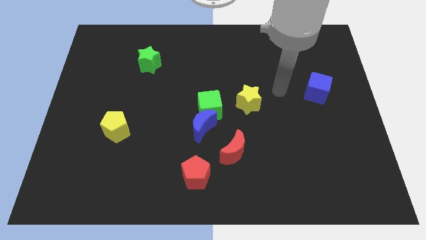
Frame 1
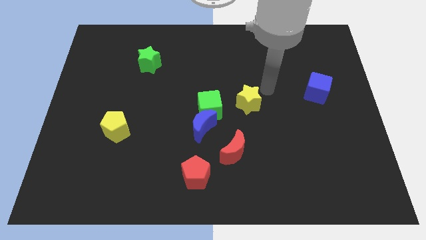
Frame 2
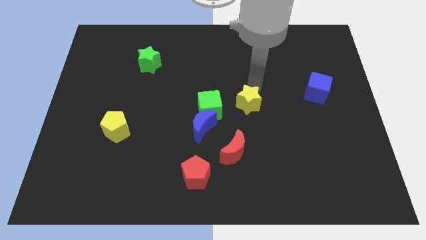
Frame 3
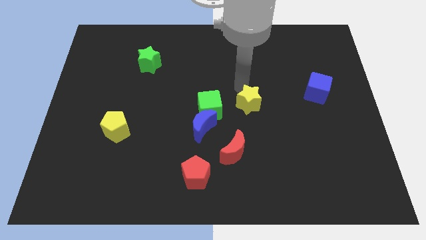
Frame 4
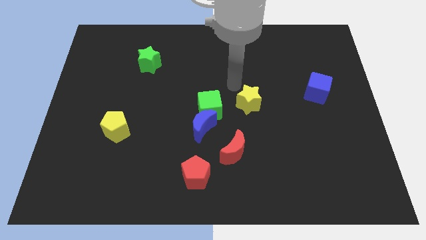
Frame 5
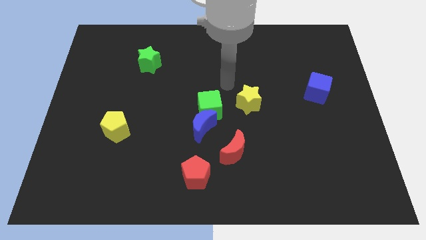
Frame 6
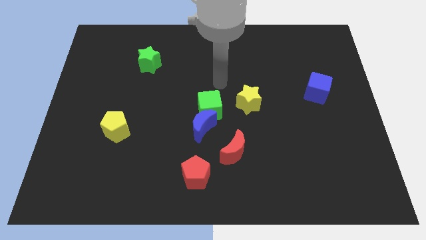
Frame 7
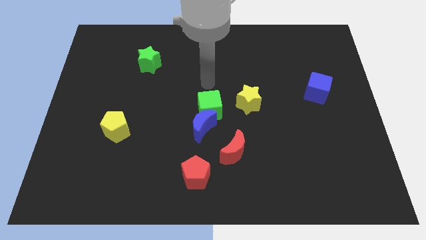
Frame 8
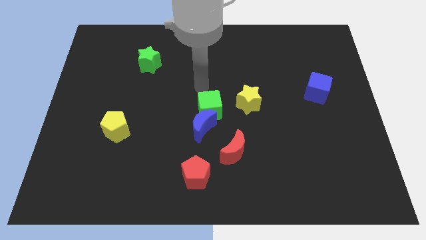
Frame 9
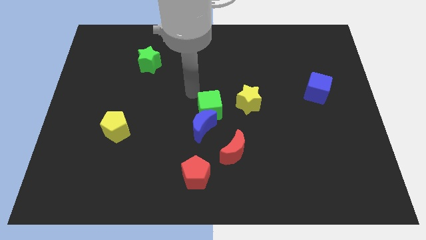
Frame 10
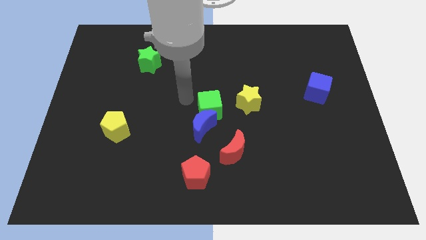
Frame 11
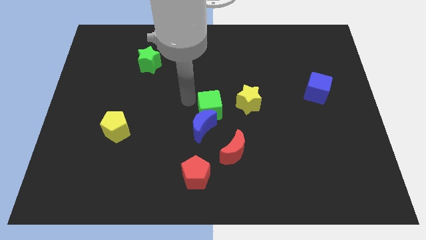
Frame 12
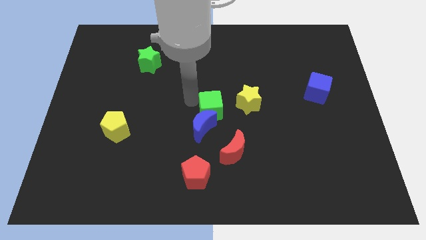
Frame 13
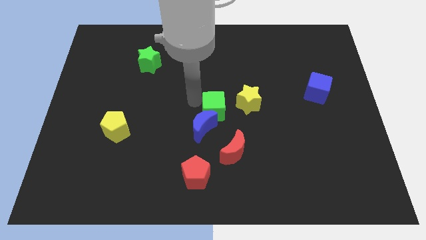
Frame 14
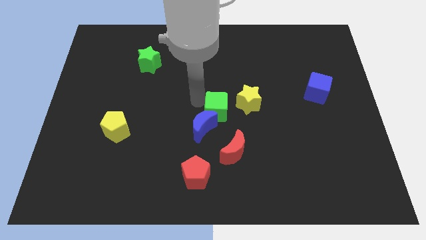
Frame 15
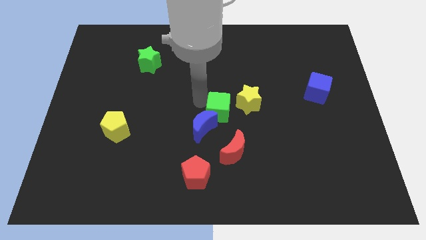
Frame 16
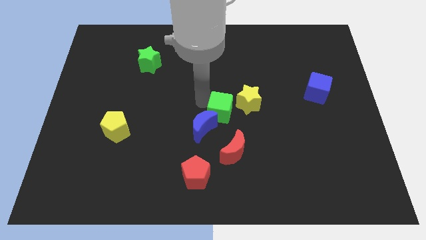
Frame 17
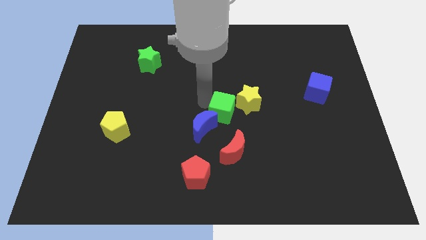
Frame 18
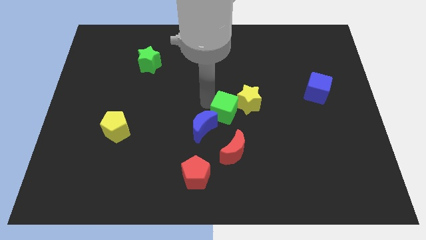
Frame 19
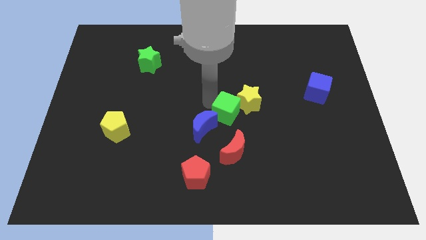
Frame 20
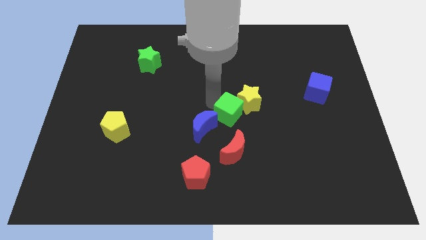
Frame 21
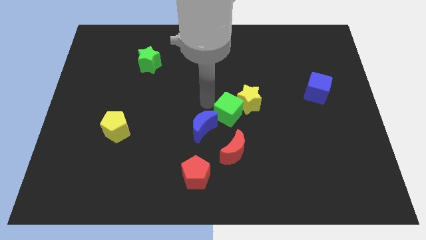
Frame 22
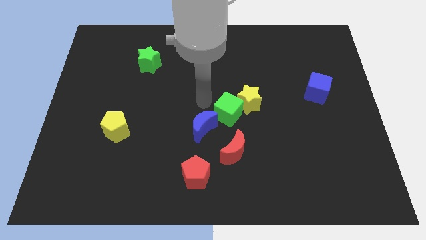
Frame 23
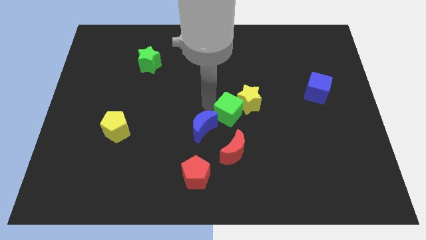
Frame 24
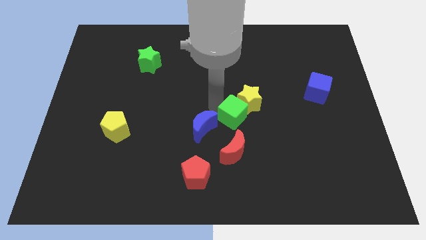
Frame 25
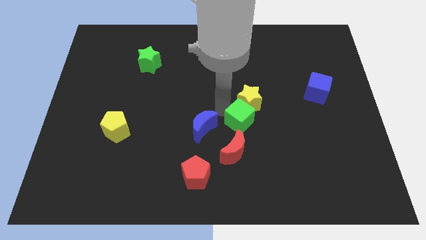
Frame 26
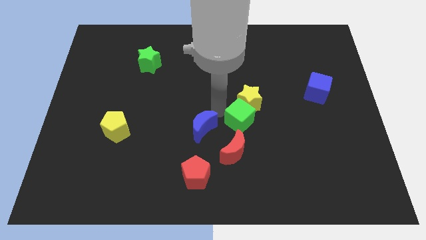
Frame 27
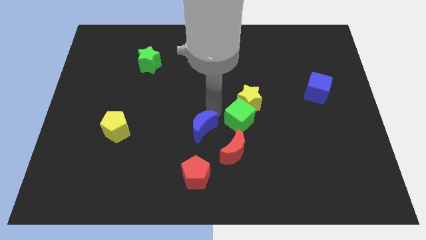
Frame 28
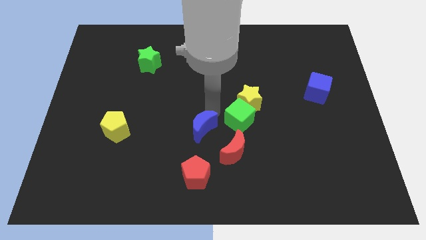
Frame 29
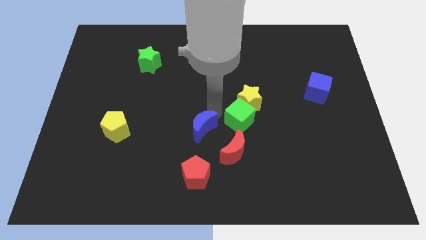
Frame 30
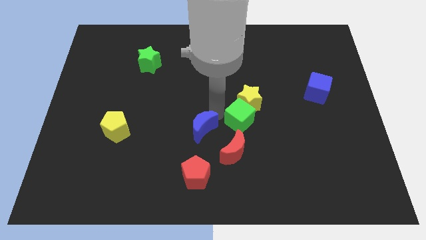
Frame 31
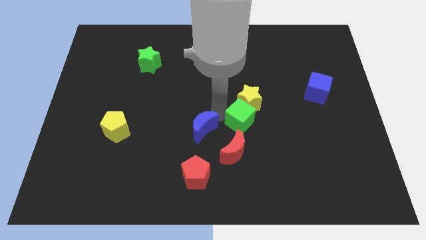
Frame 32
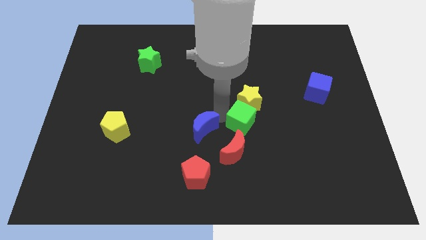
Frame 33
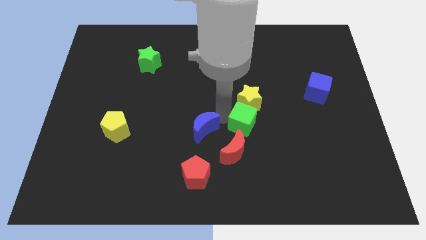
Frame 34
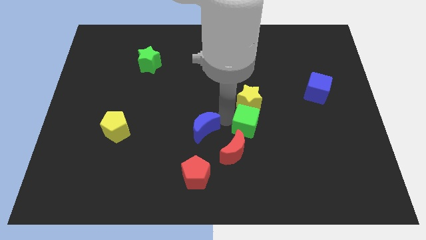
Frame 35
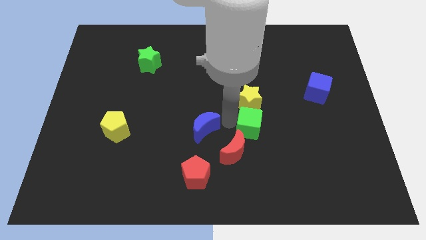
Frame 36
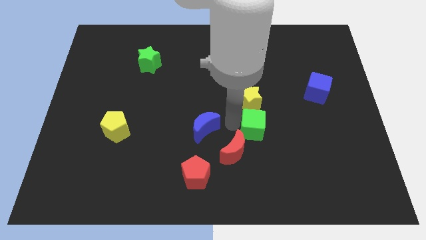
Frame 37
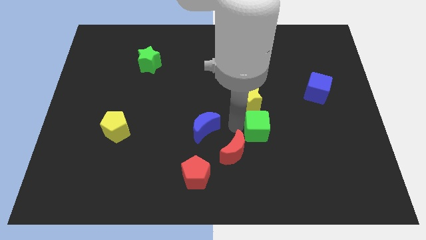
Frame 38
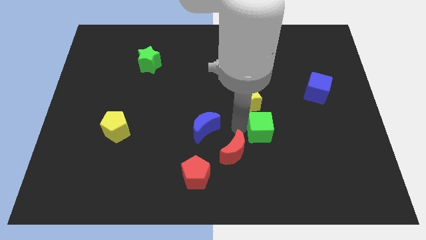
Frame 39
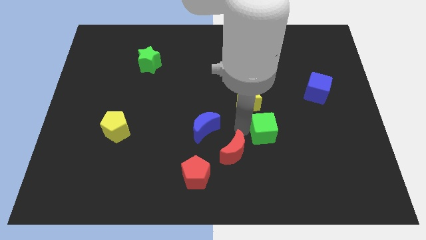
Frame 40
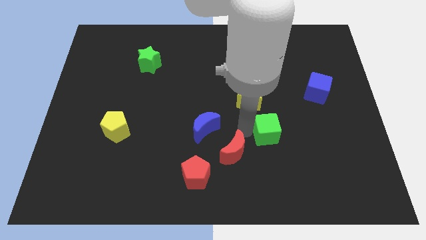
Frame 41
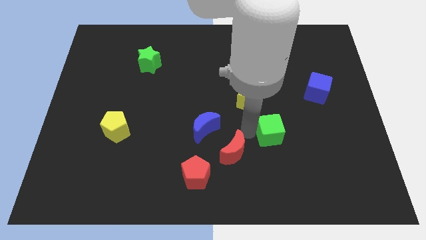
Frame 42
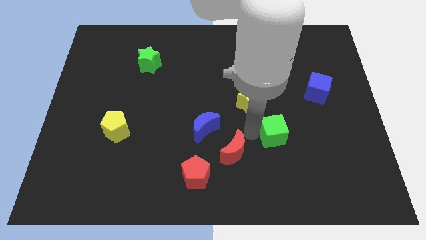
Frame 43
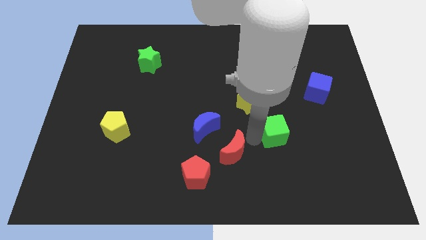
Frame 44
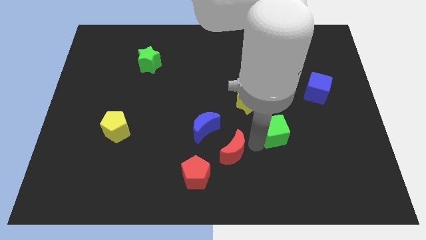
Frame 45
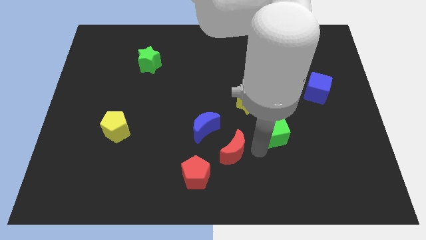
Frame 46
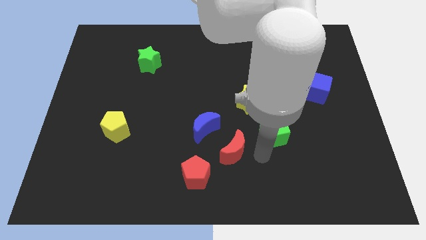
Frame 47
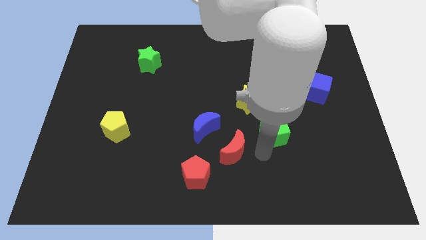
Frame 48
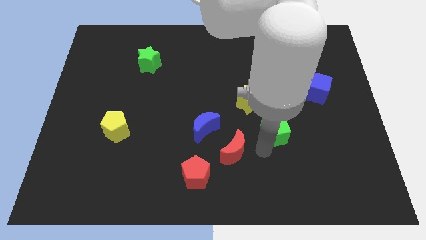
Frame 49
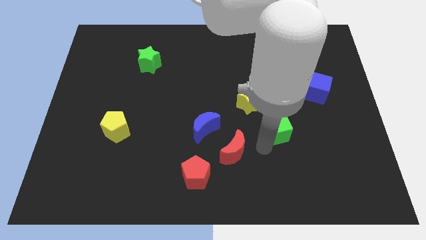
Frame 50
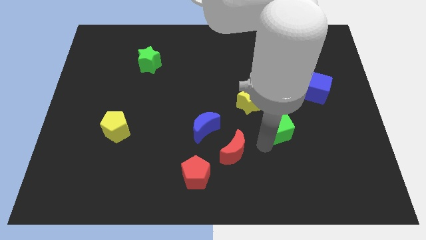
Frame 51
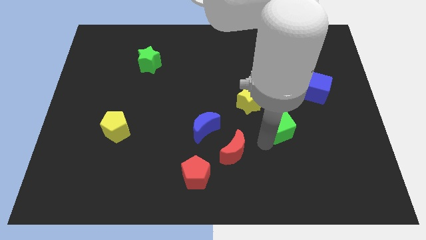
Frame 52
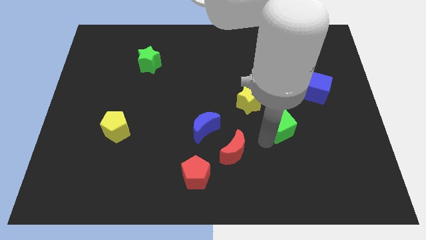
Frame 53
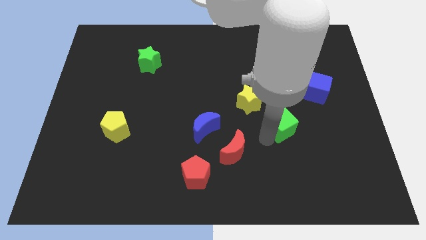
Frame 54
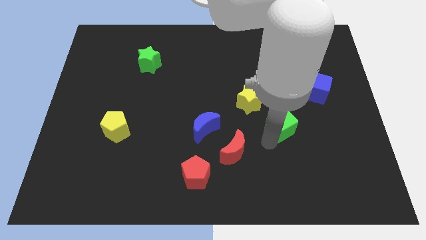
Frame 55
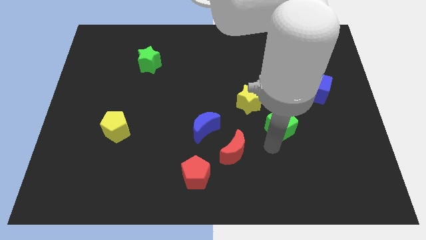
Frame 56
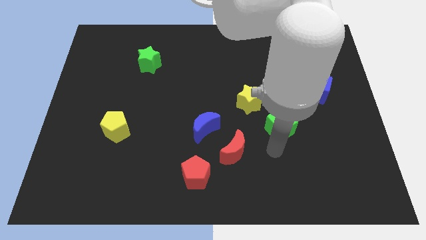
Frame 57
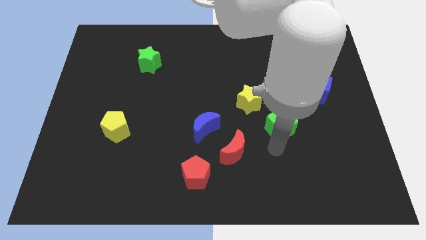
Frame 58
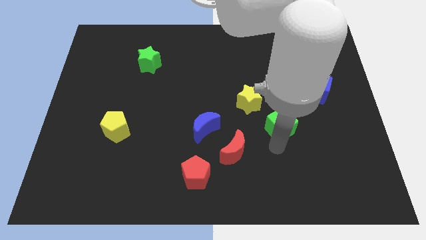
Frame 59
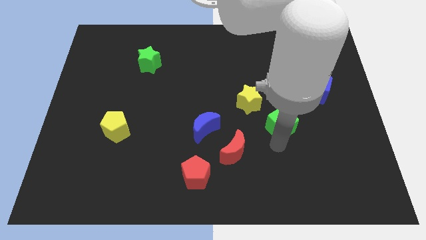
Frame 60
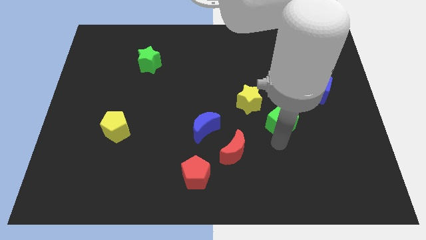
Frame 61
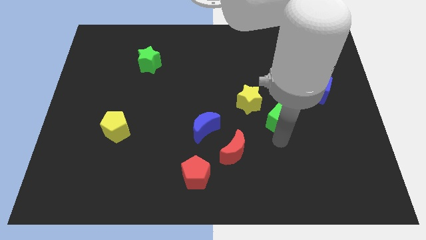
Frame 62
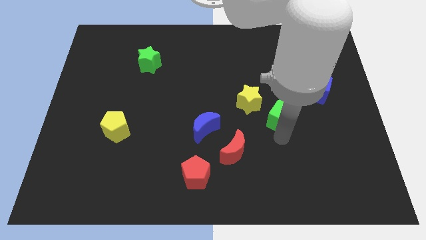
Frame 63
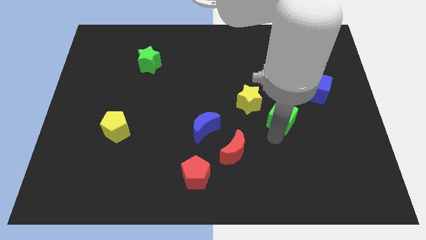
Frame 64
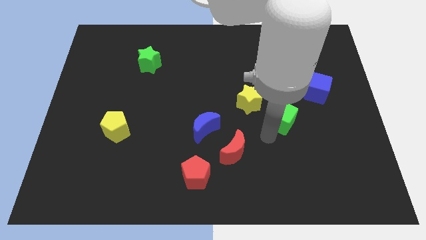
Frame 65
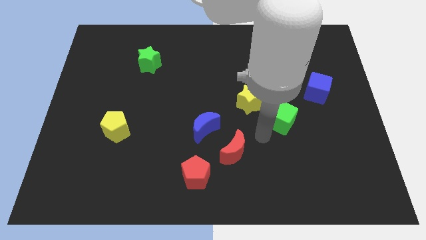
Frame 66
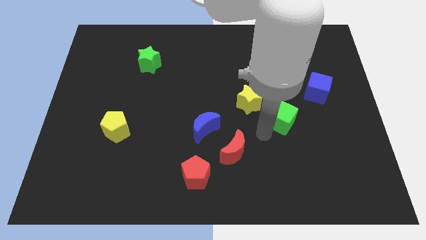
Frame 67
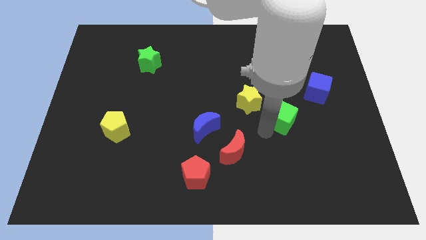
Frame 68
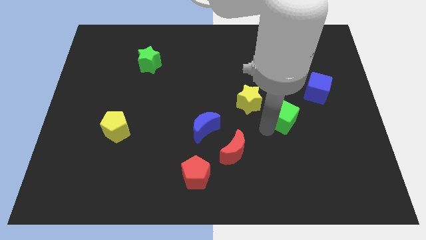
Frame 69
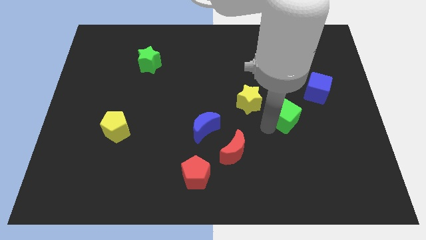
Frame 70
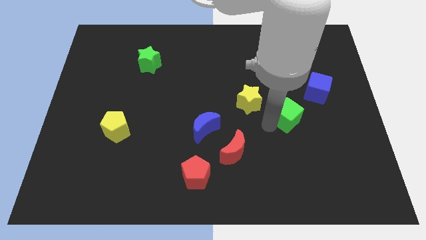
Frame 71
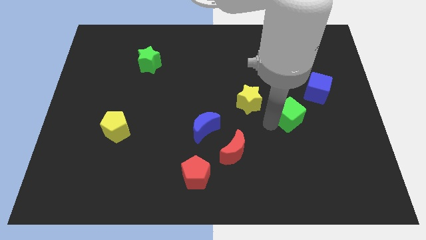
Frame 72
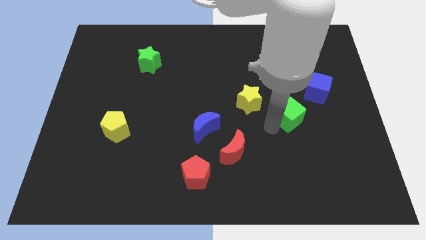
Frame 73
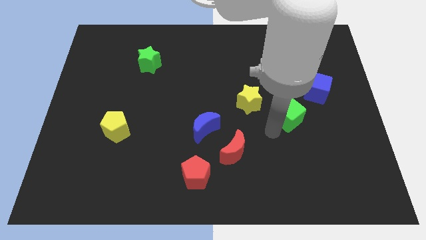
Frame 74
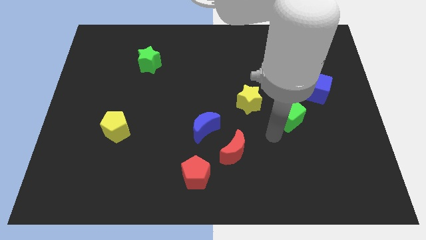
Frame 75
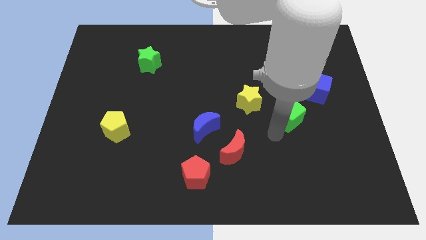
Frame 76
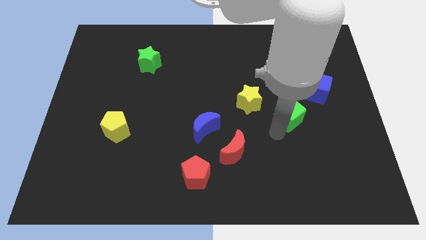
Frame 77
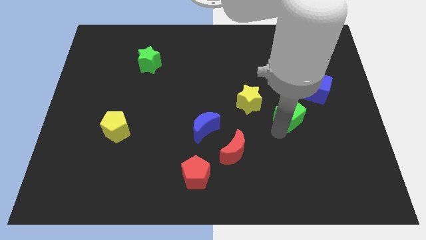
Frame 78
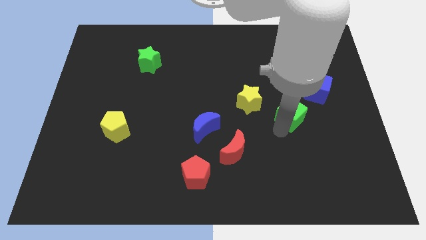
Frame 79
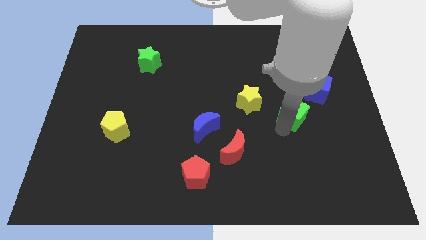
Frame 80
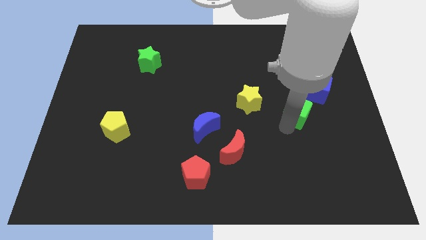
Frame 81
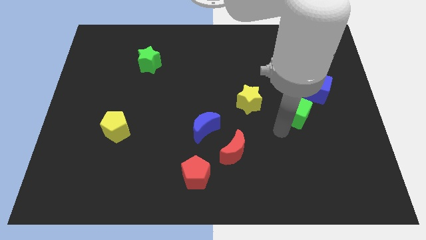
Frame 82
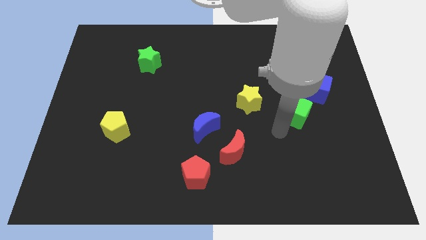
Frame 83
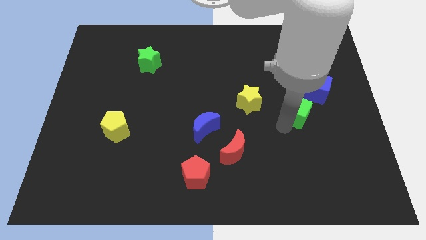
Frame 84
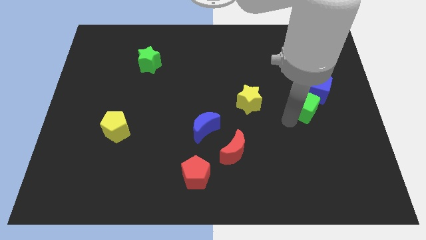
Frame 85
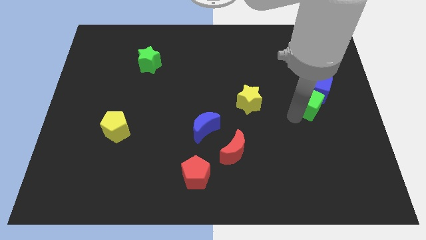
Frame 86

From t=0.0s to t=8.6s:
push the green cube close to the blue cube
